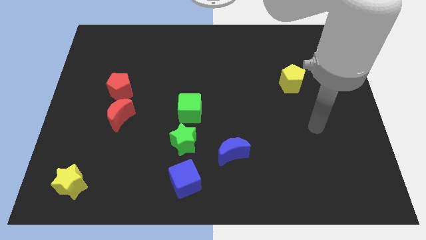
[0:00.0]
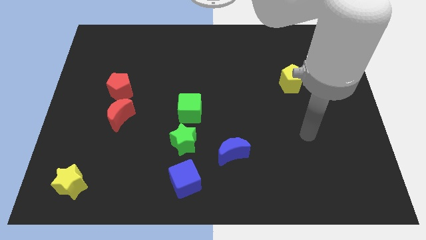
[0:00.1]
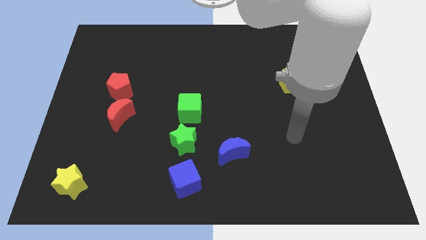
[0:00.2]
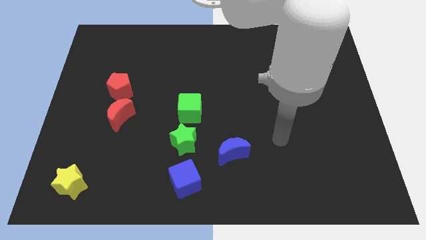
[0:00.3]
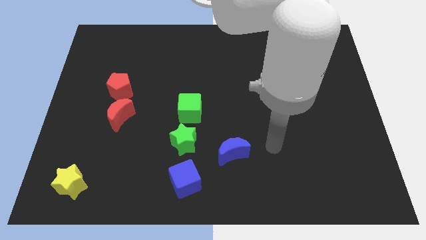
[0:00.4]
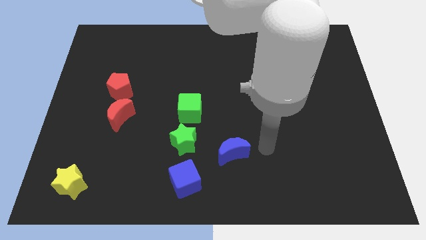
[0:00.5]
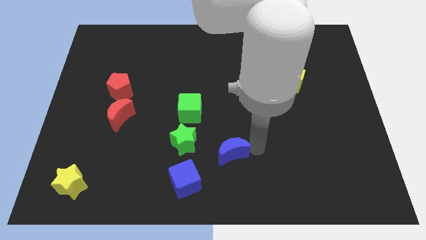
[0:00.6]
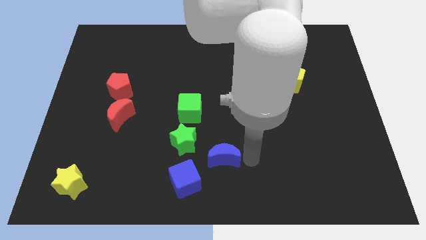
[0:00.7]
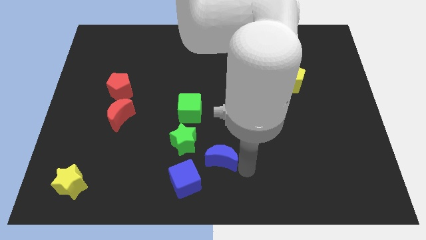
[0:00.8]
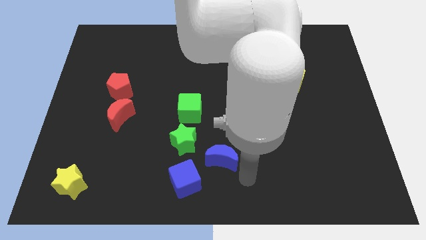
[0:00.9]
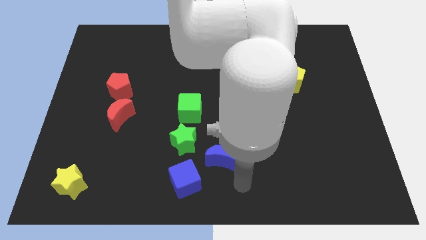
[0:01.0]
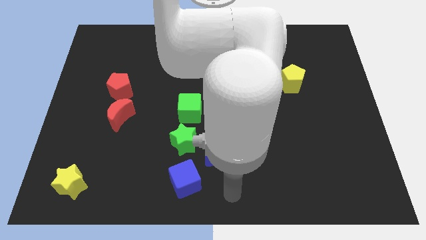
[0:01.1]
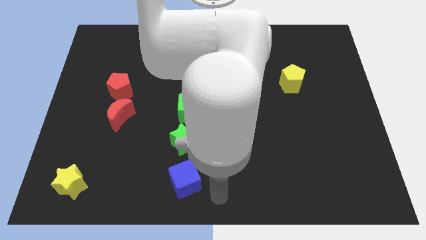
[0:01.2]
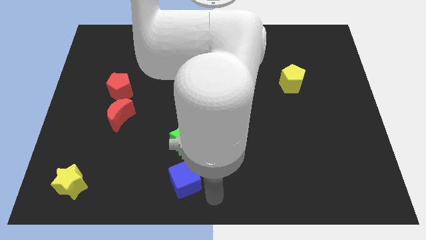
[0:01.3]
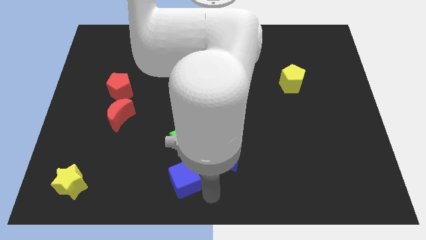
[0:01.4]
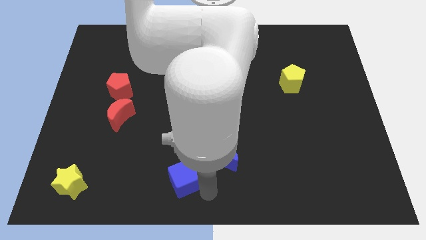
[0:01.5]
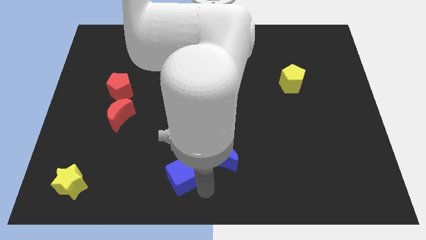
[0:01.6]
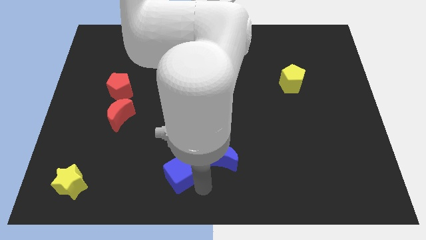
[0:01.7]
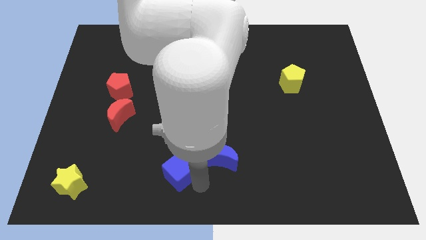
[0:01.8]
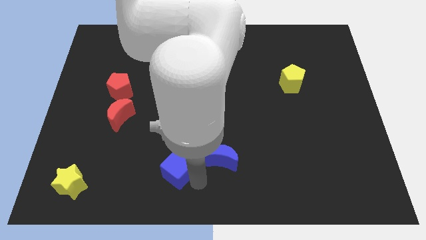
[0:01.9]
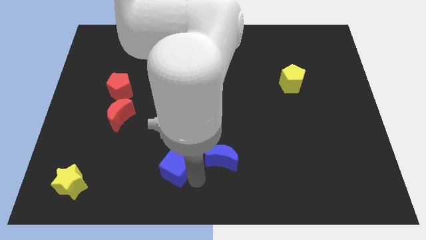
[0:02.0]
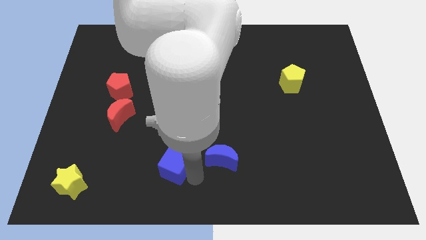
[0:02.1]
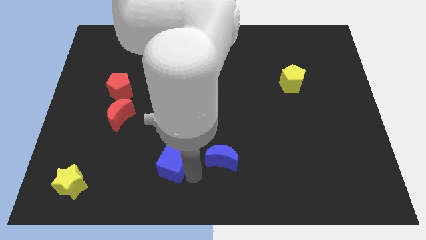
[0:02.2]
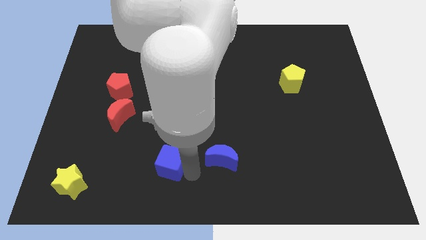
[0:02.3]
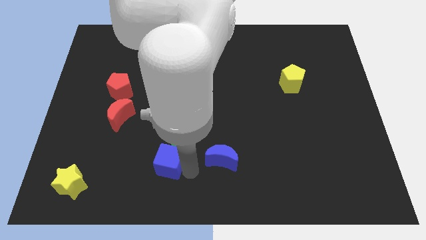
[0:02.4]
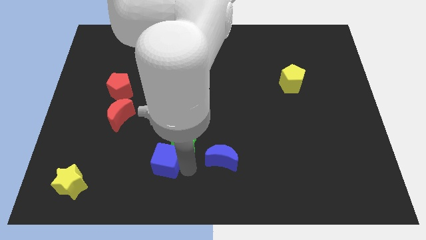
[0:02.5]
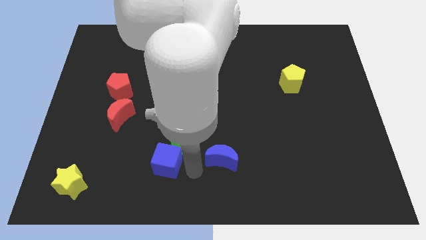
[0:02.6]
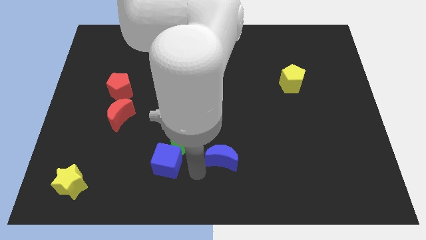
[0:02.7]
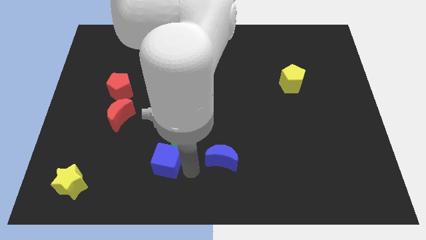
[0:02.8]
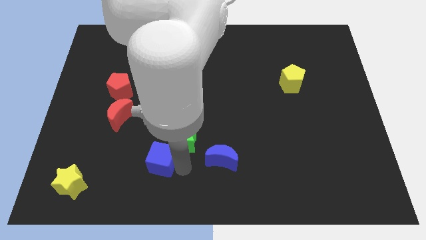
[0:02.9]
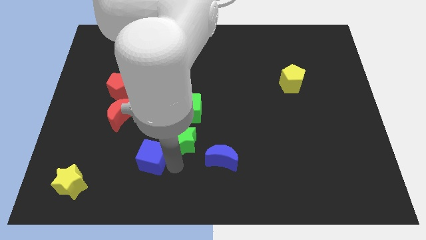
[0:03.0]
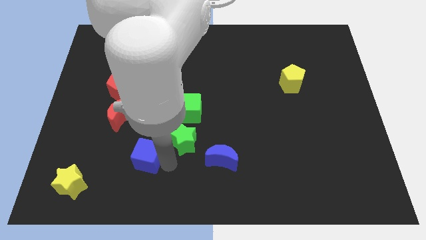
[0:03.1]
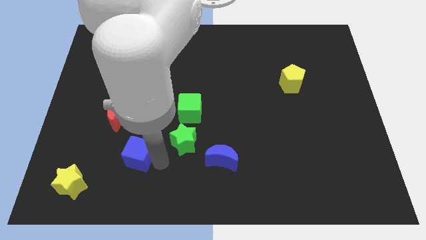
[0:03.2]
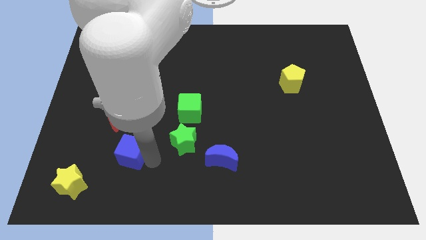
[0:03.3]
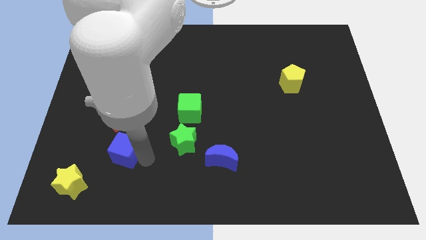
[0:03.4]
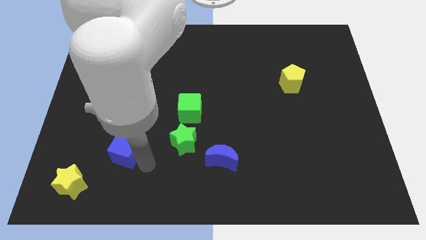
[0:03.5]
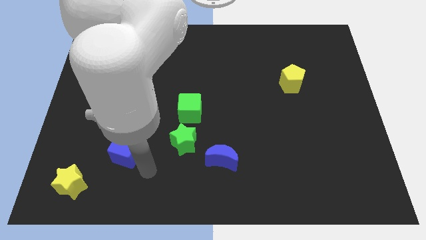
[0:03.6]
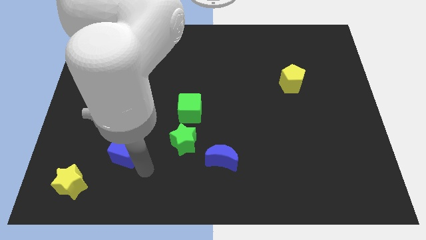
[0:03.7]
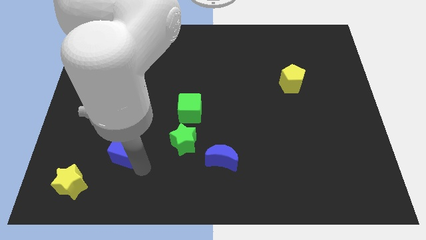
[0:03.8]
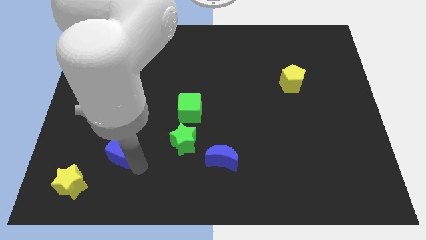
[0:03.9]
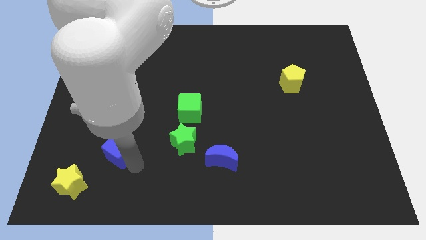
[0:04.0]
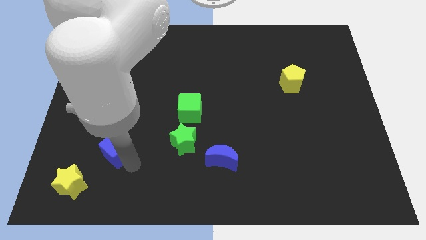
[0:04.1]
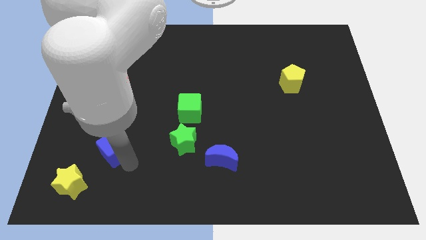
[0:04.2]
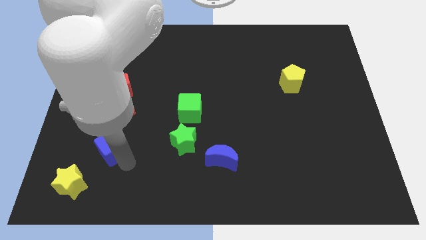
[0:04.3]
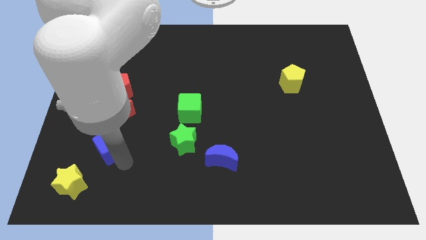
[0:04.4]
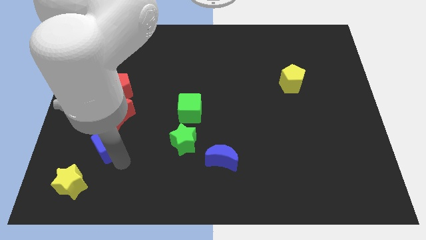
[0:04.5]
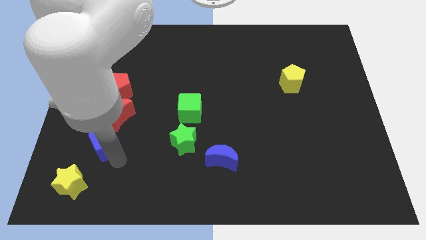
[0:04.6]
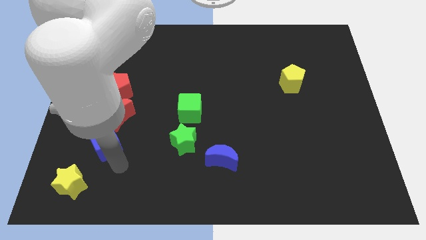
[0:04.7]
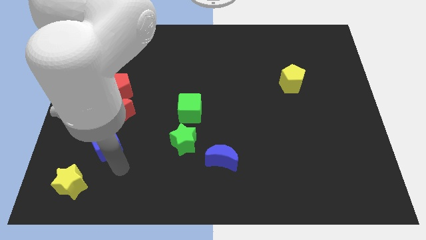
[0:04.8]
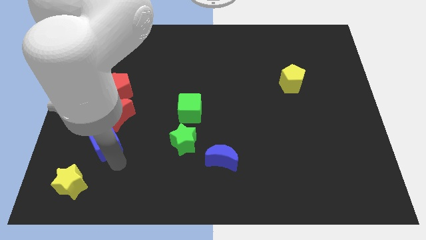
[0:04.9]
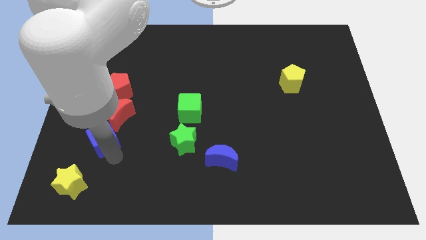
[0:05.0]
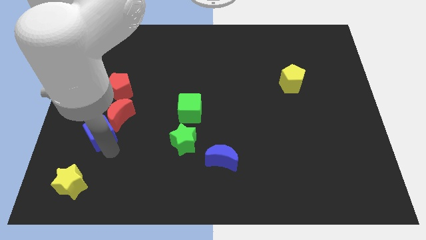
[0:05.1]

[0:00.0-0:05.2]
push the blue cube diagonally upwards and left

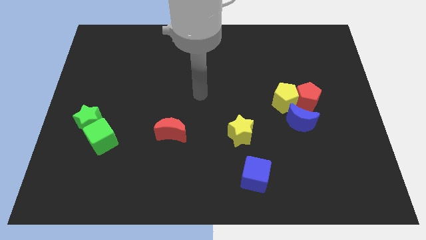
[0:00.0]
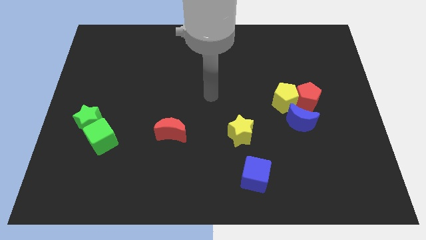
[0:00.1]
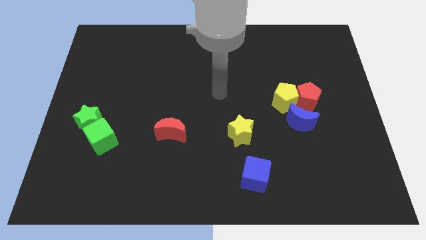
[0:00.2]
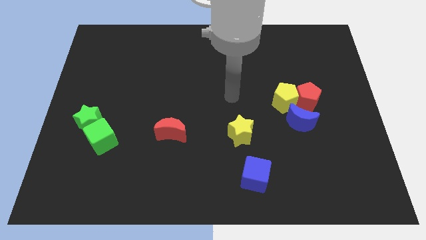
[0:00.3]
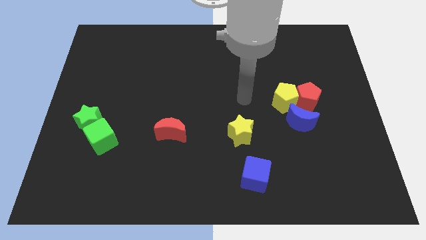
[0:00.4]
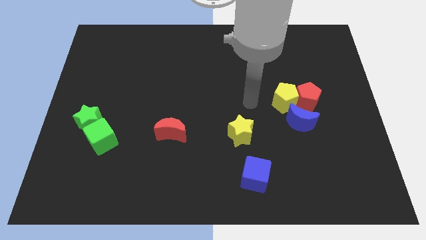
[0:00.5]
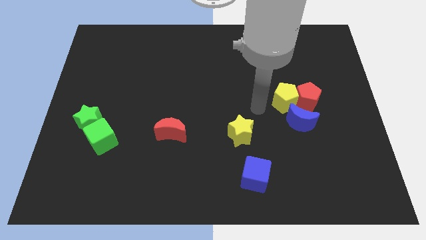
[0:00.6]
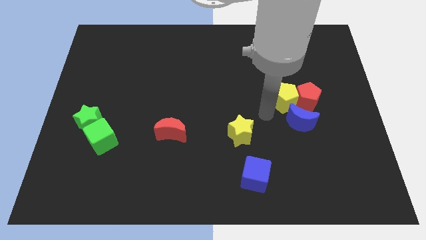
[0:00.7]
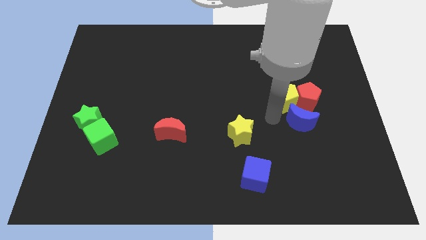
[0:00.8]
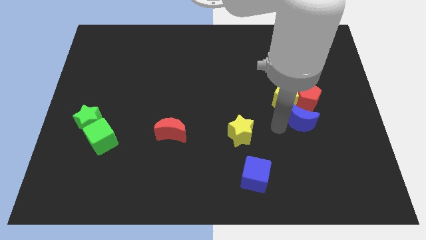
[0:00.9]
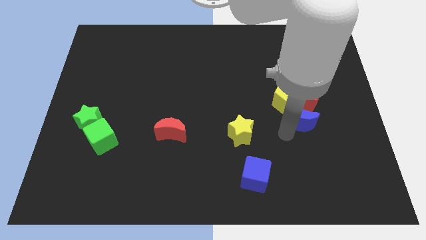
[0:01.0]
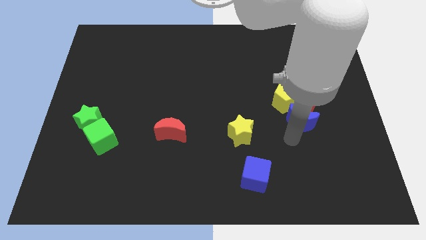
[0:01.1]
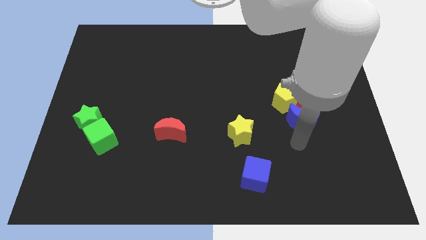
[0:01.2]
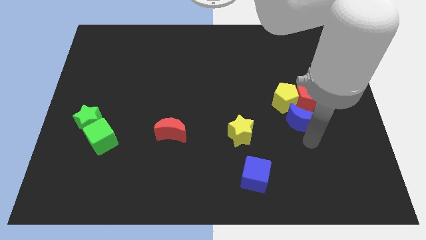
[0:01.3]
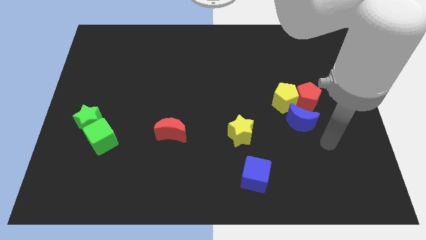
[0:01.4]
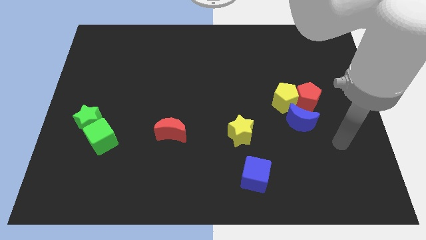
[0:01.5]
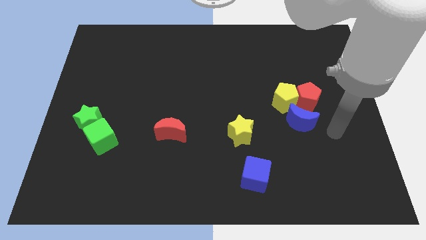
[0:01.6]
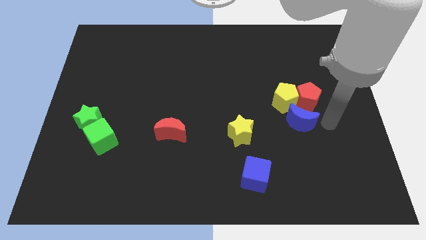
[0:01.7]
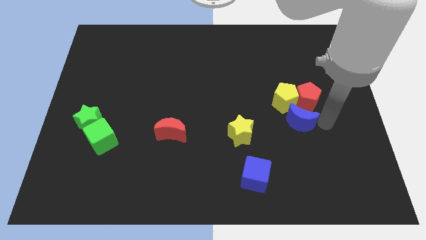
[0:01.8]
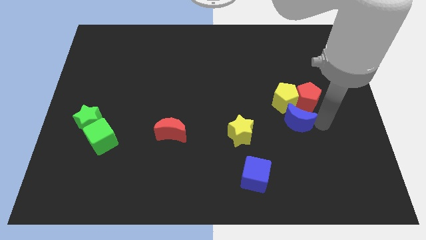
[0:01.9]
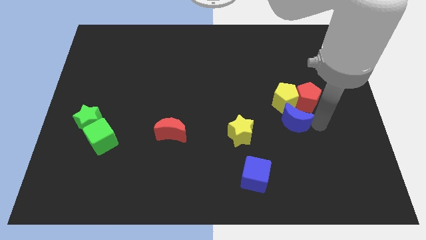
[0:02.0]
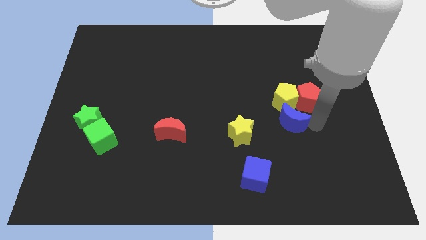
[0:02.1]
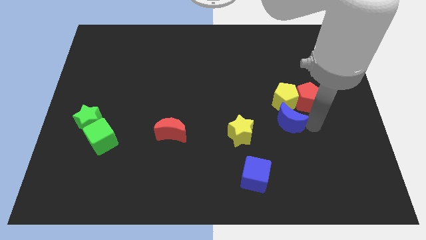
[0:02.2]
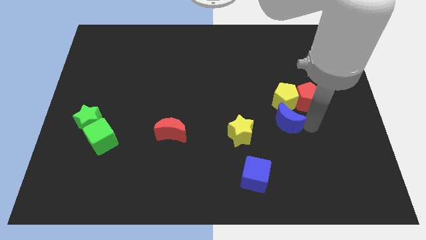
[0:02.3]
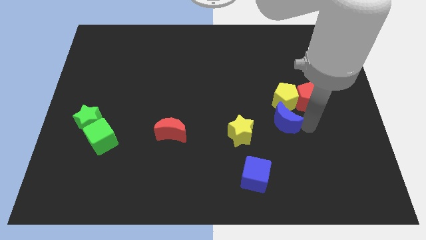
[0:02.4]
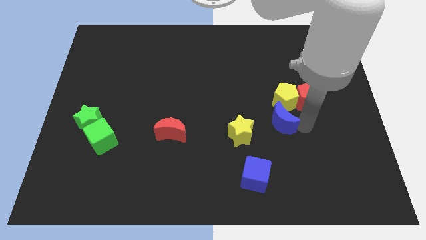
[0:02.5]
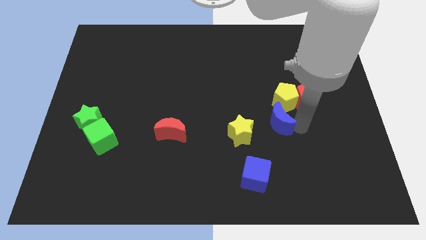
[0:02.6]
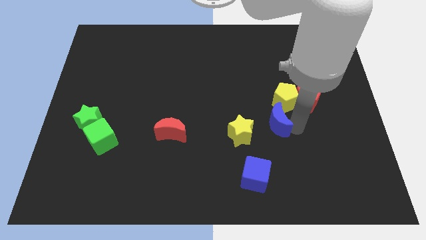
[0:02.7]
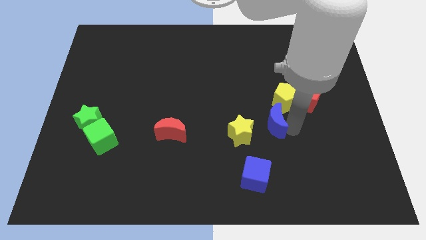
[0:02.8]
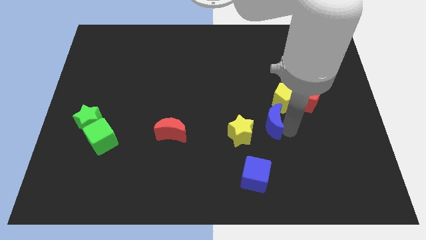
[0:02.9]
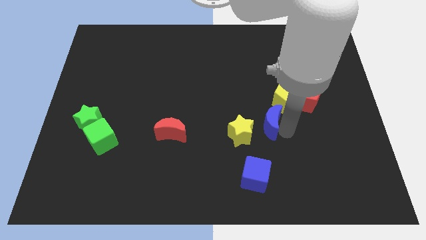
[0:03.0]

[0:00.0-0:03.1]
push the blue moon left slightly
